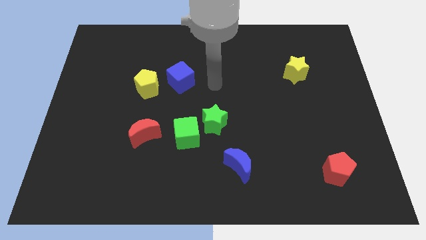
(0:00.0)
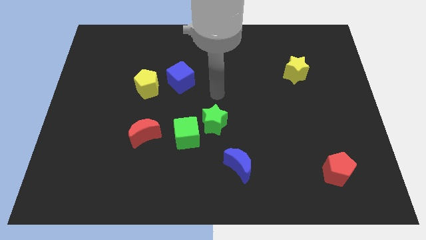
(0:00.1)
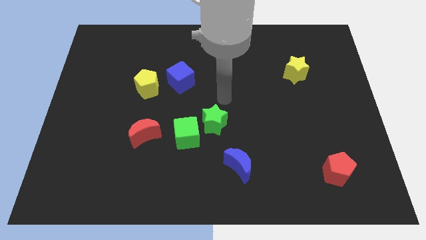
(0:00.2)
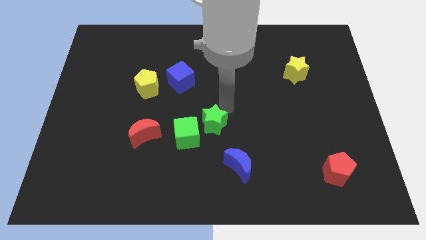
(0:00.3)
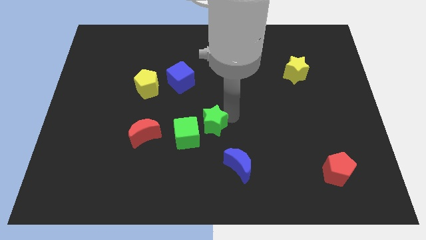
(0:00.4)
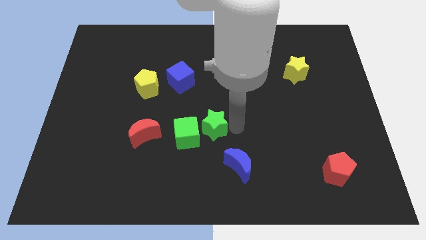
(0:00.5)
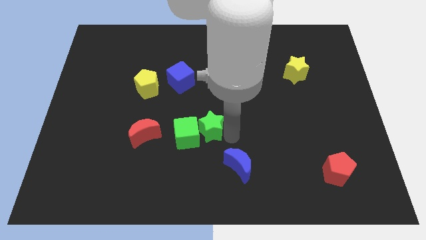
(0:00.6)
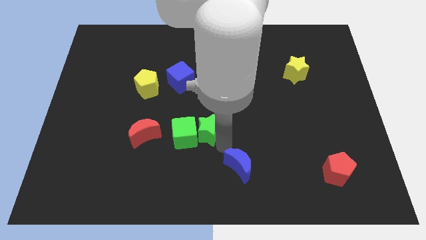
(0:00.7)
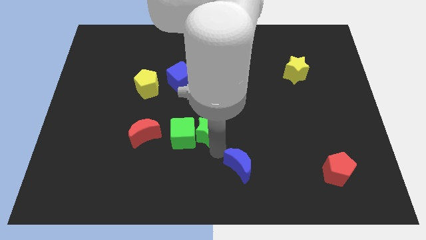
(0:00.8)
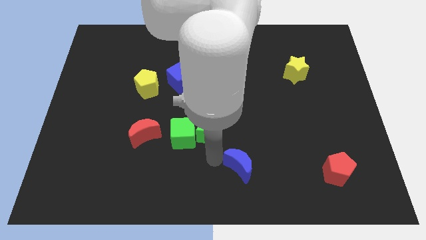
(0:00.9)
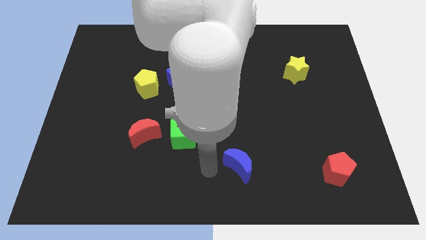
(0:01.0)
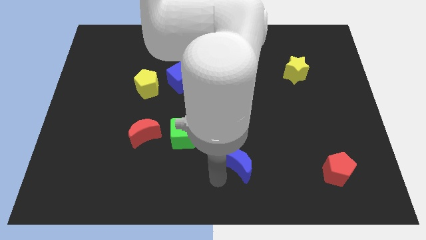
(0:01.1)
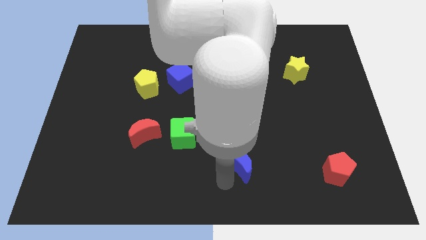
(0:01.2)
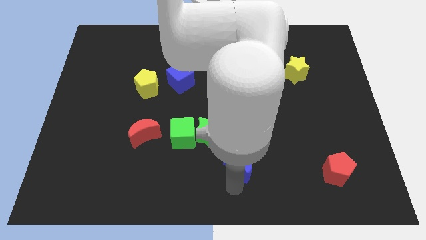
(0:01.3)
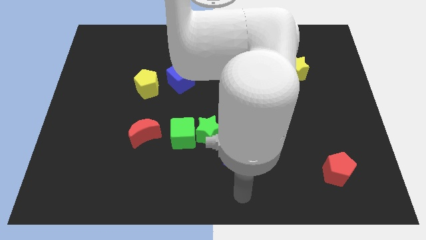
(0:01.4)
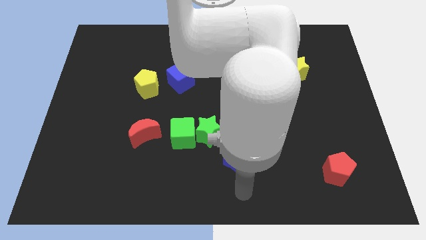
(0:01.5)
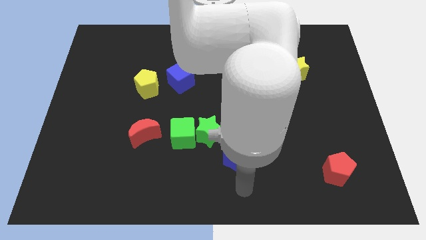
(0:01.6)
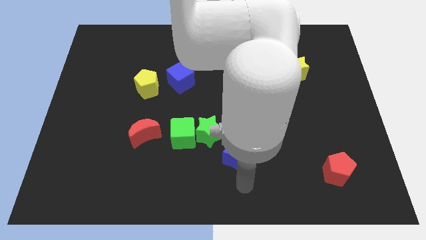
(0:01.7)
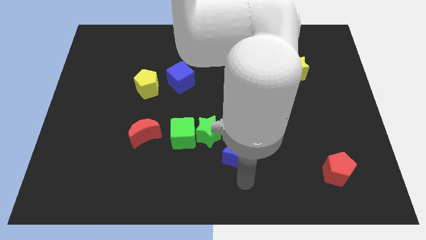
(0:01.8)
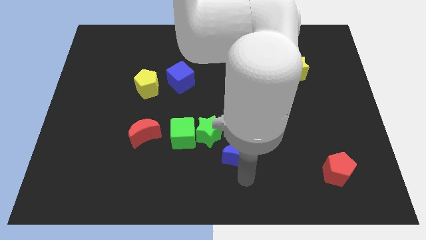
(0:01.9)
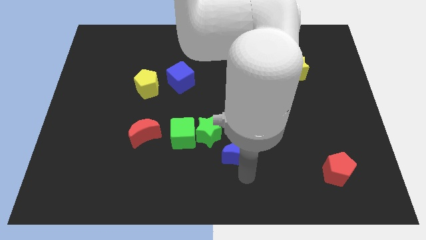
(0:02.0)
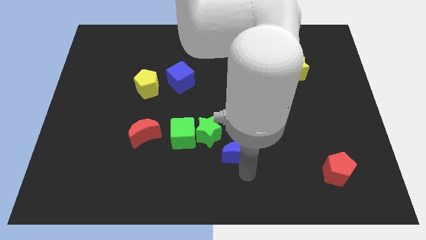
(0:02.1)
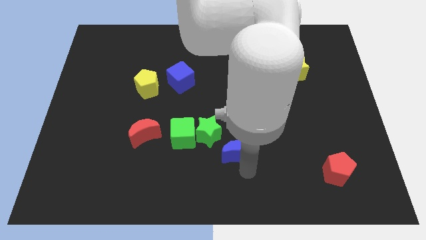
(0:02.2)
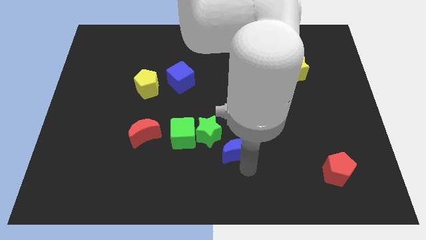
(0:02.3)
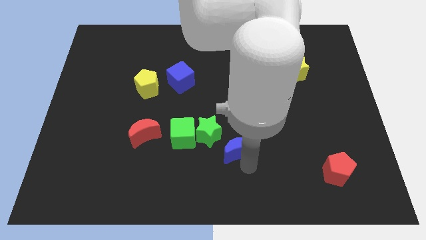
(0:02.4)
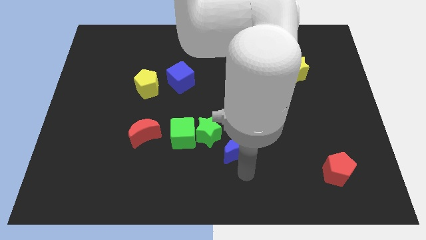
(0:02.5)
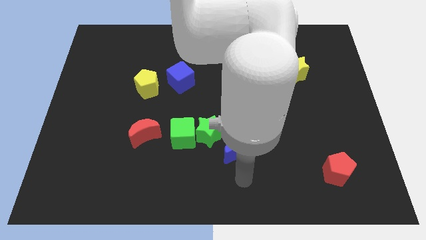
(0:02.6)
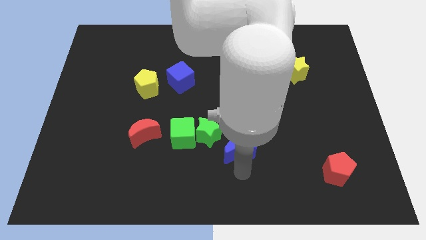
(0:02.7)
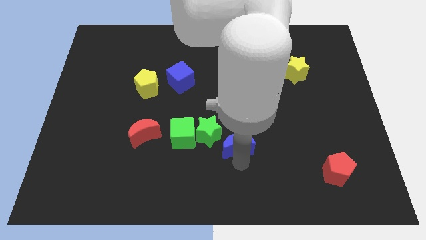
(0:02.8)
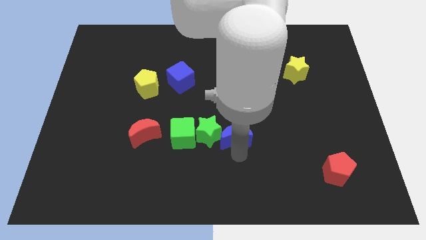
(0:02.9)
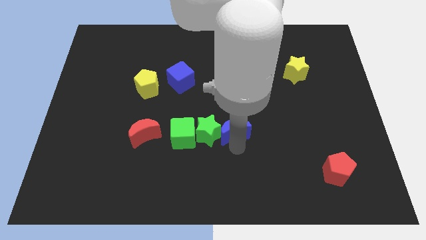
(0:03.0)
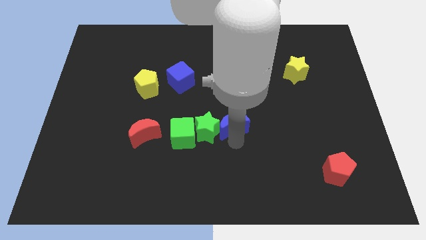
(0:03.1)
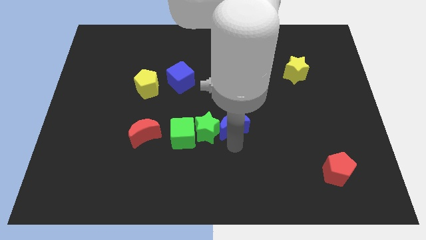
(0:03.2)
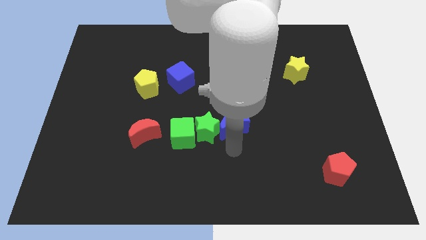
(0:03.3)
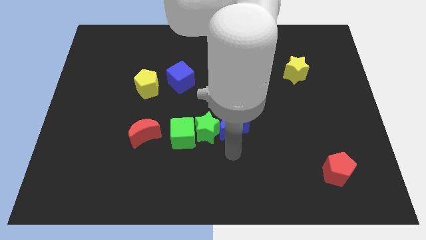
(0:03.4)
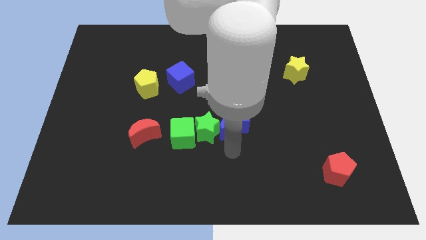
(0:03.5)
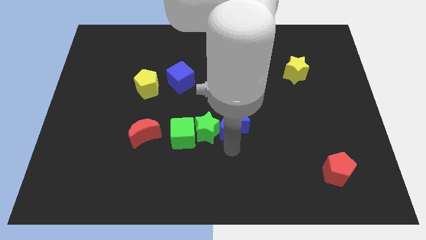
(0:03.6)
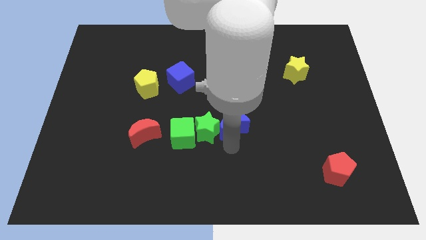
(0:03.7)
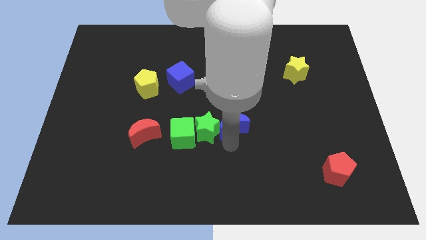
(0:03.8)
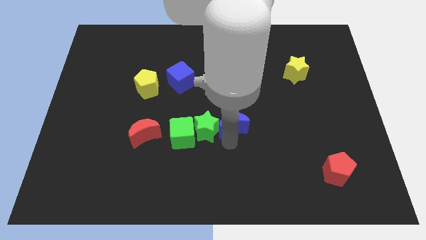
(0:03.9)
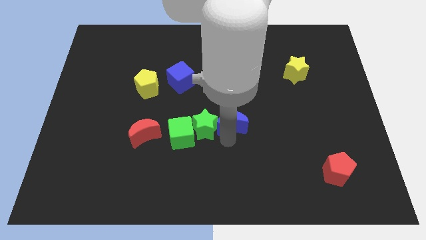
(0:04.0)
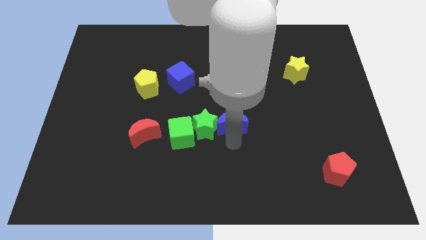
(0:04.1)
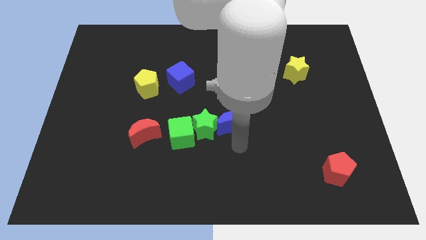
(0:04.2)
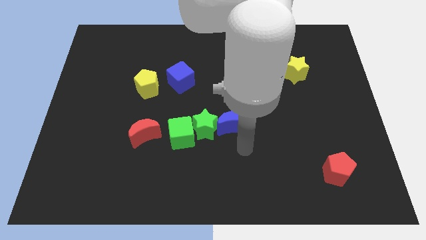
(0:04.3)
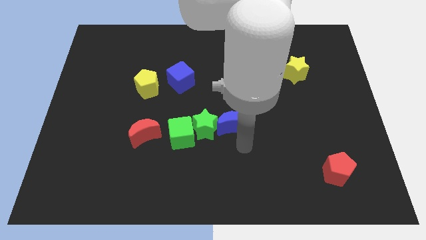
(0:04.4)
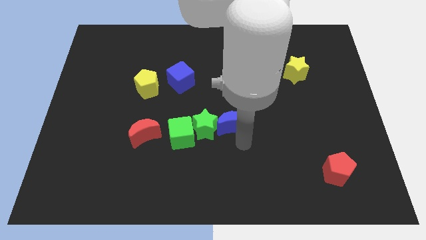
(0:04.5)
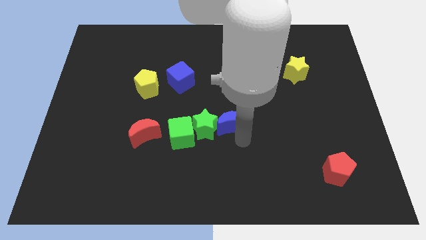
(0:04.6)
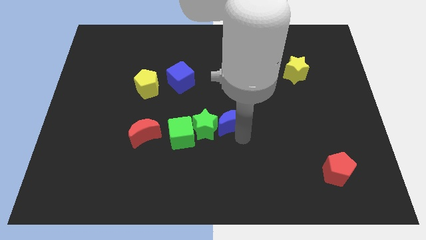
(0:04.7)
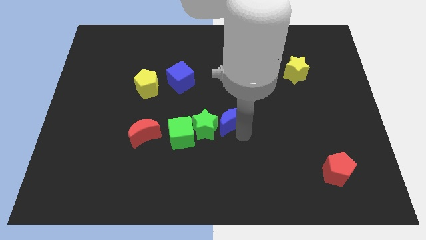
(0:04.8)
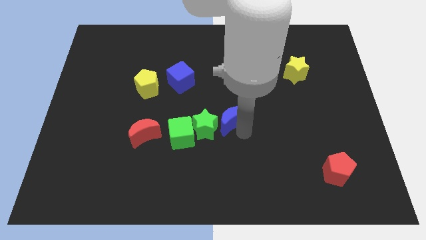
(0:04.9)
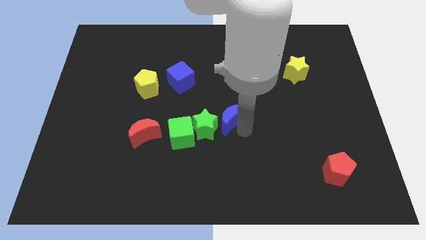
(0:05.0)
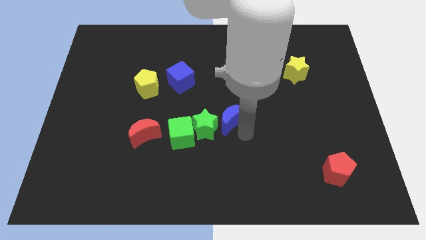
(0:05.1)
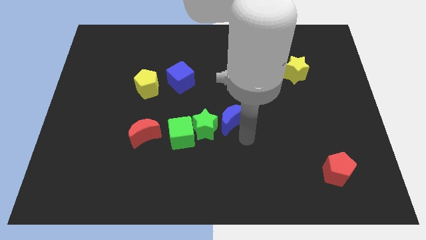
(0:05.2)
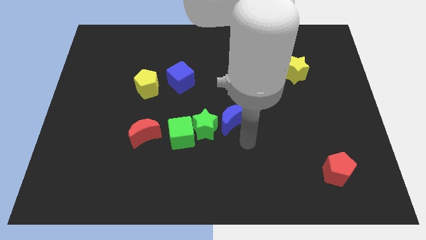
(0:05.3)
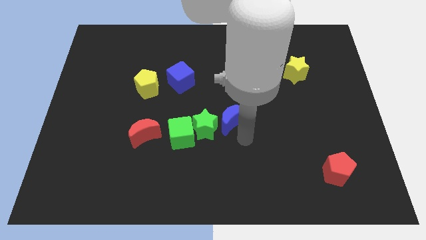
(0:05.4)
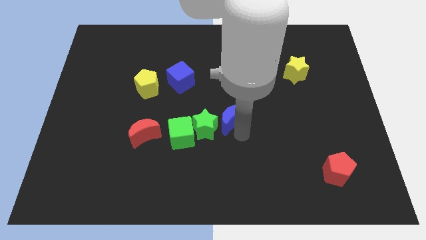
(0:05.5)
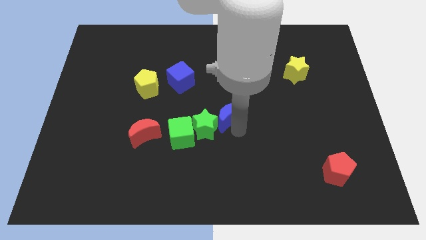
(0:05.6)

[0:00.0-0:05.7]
push the blue moon to the top right of the green cube

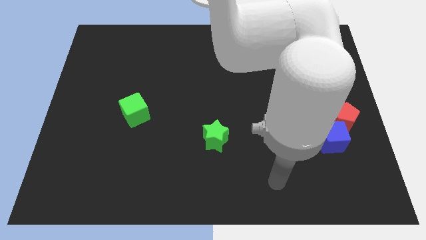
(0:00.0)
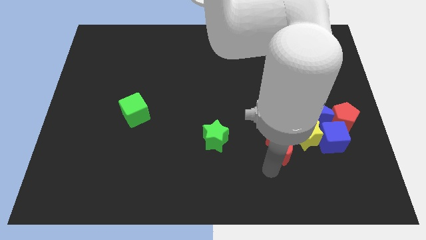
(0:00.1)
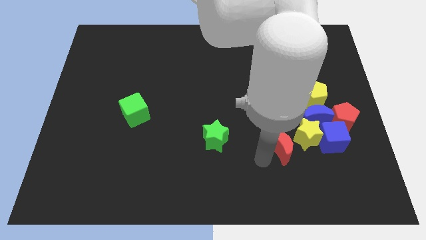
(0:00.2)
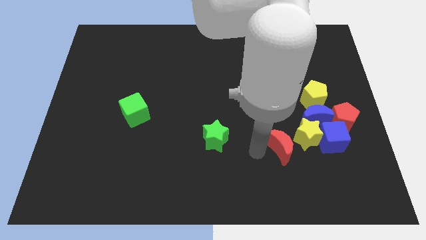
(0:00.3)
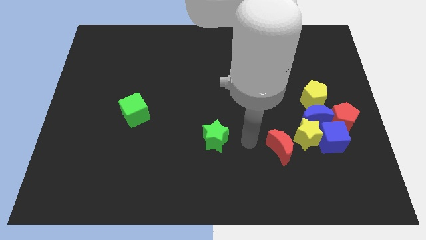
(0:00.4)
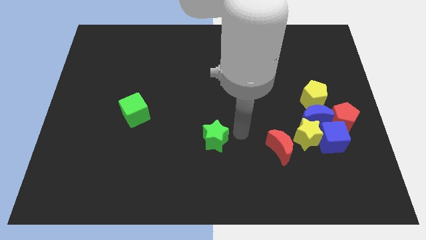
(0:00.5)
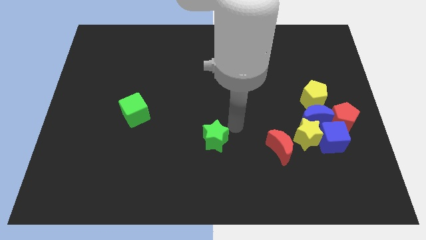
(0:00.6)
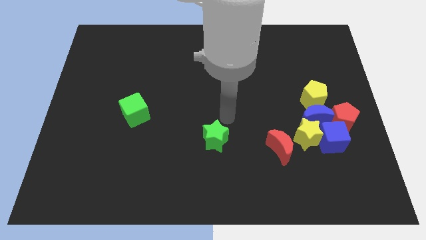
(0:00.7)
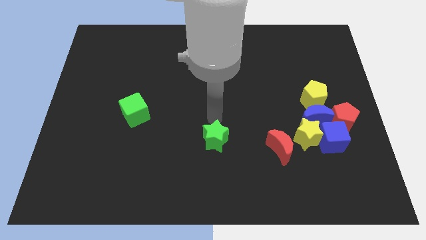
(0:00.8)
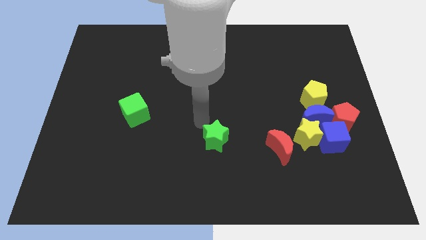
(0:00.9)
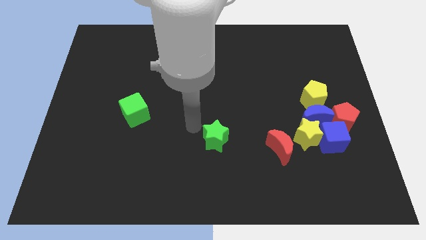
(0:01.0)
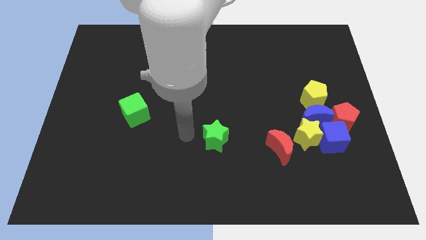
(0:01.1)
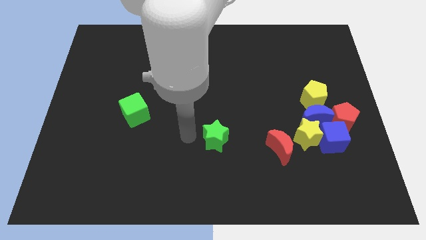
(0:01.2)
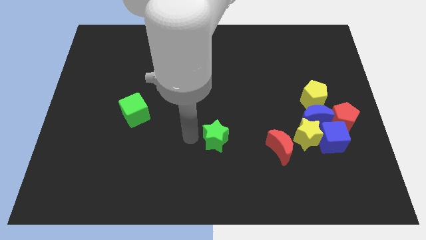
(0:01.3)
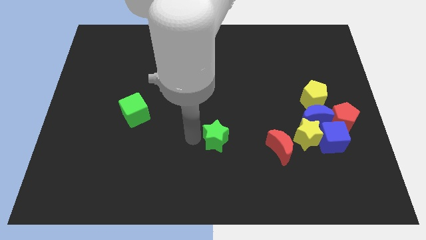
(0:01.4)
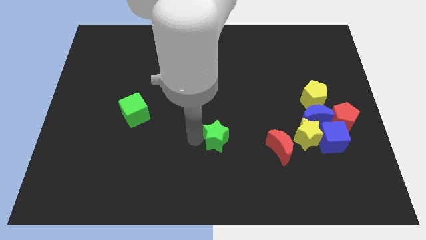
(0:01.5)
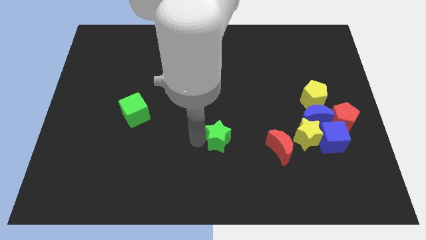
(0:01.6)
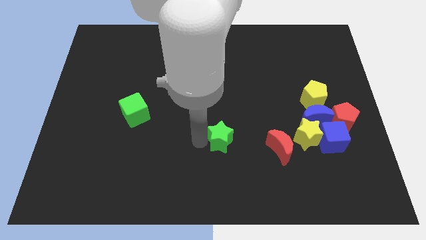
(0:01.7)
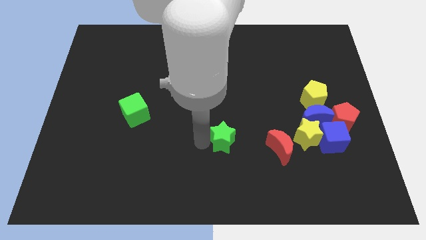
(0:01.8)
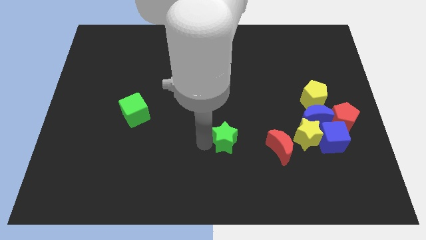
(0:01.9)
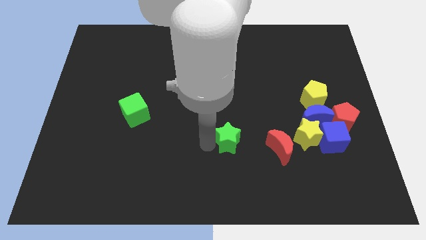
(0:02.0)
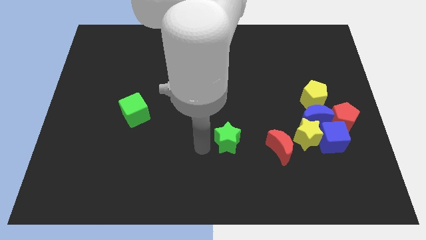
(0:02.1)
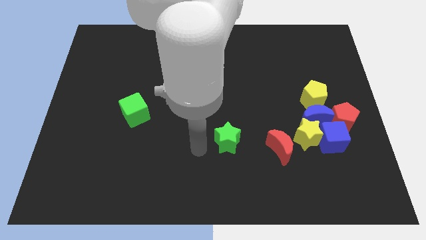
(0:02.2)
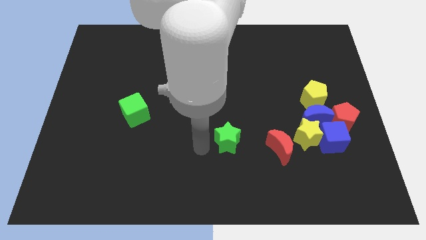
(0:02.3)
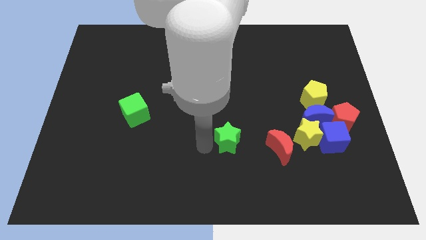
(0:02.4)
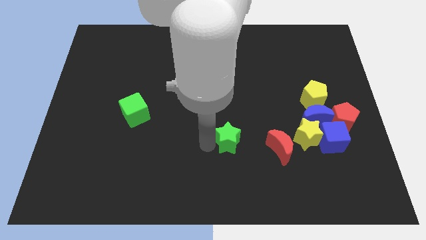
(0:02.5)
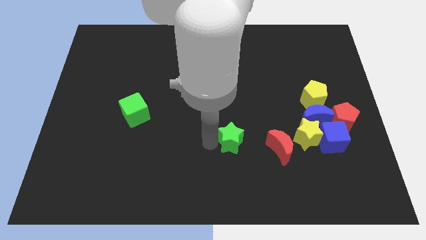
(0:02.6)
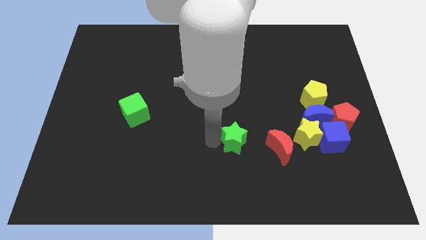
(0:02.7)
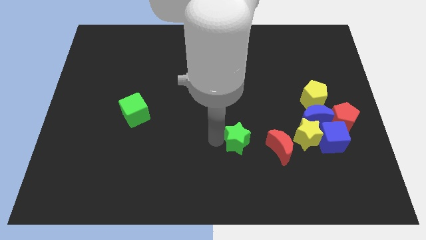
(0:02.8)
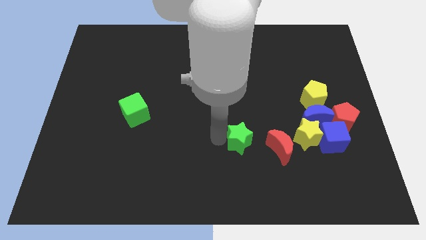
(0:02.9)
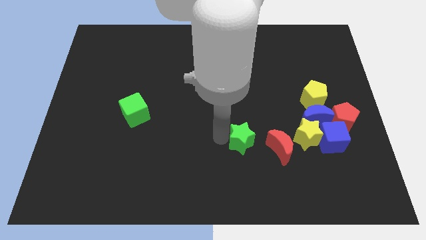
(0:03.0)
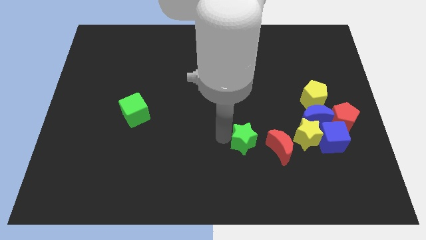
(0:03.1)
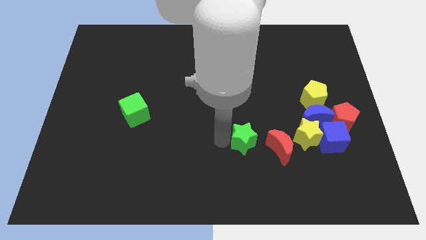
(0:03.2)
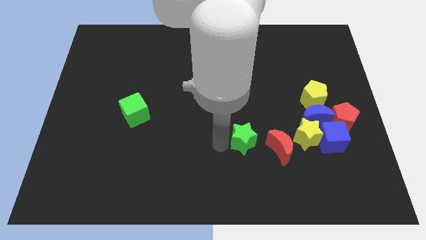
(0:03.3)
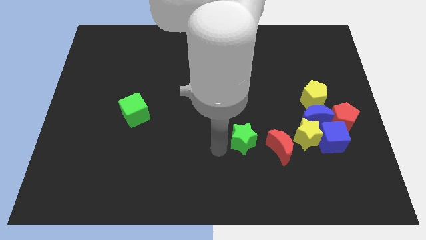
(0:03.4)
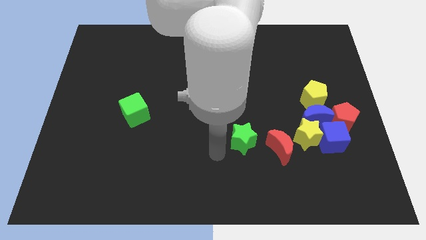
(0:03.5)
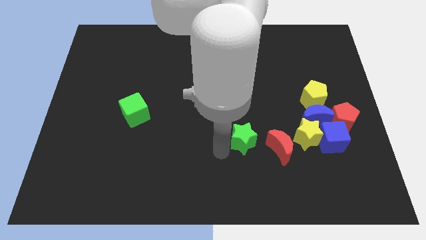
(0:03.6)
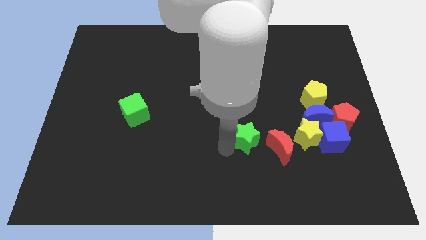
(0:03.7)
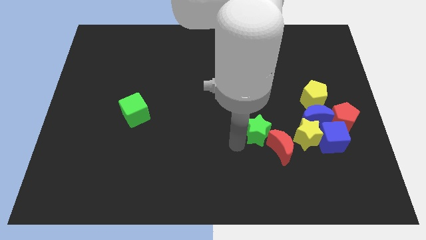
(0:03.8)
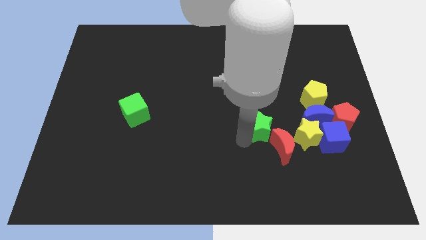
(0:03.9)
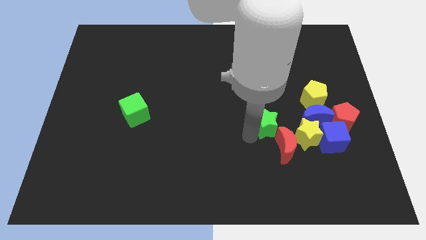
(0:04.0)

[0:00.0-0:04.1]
slide the green star to the top left of the yellow star
